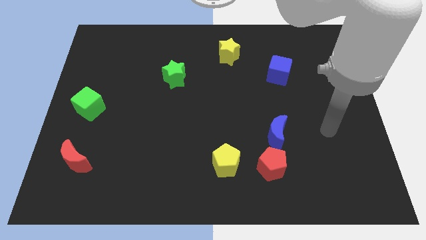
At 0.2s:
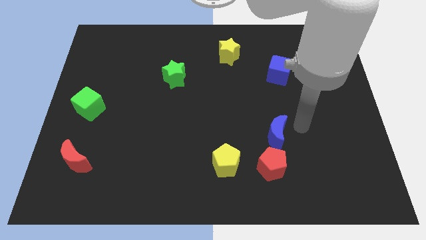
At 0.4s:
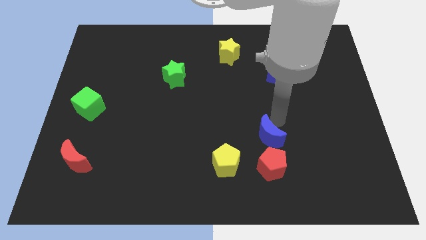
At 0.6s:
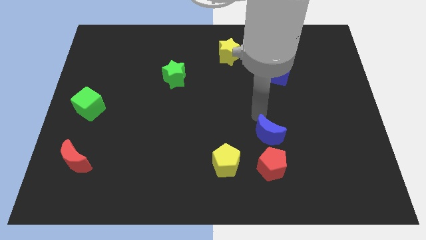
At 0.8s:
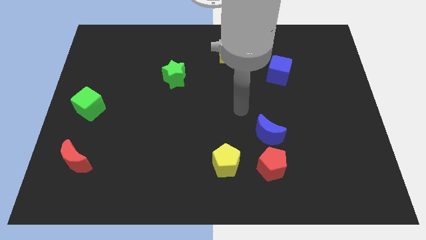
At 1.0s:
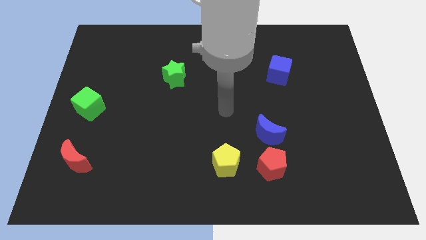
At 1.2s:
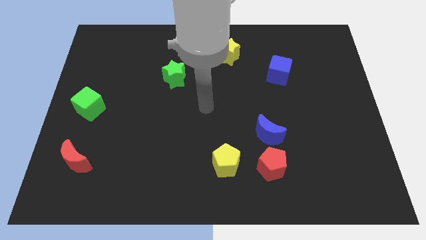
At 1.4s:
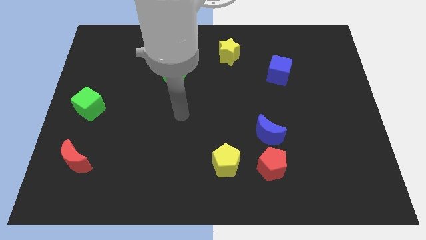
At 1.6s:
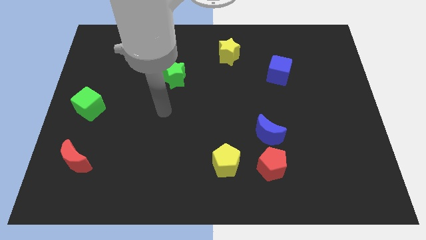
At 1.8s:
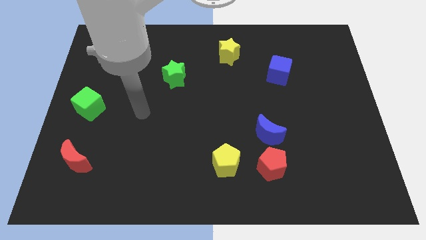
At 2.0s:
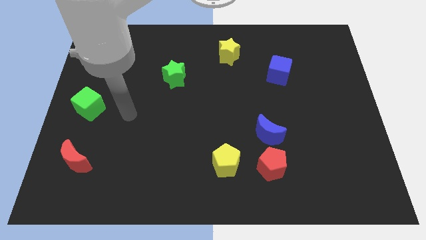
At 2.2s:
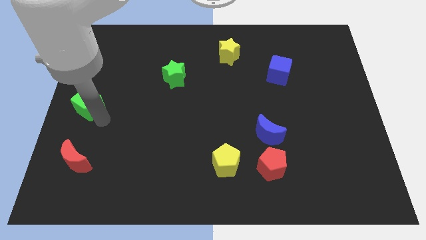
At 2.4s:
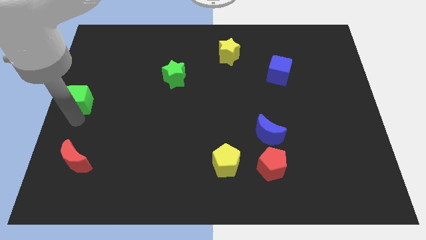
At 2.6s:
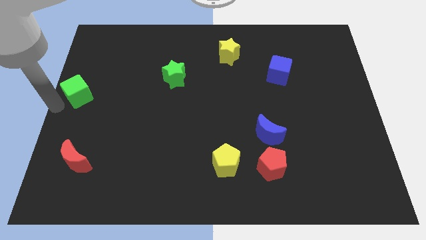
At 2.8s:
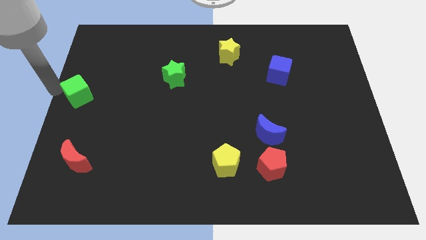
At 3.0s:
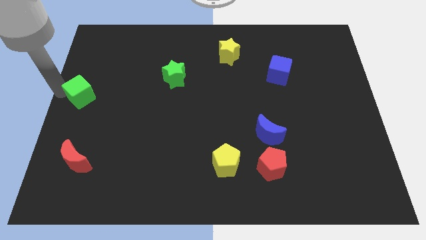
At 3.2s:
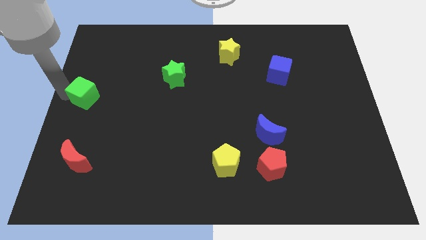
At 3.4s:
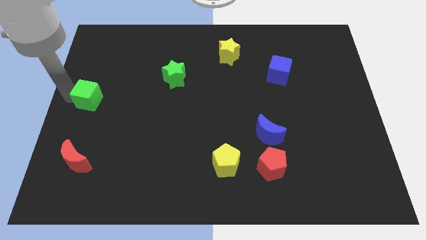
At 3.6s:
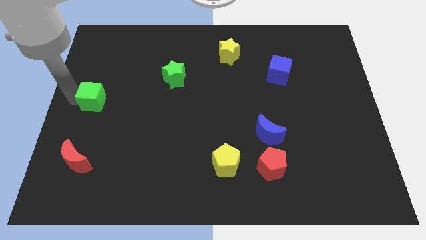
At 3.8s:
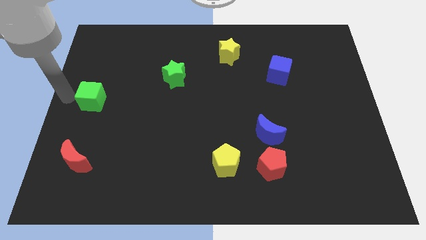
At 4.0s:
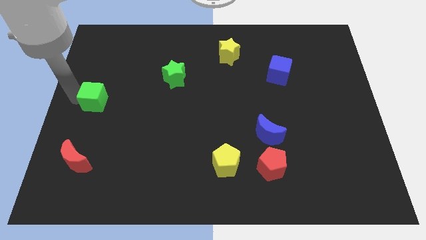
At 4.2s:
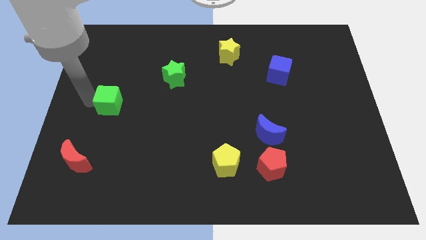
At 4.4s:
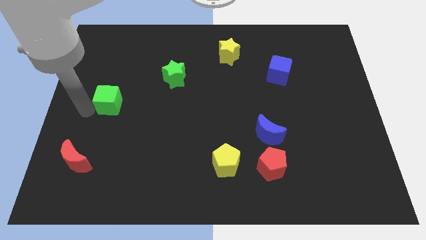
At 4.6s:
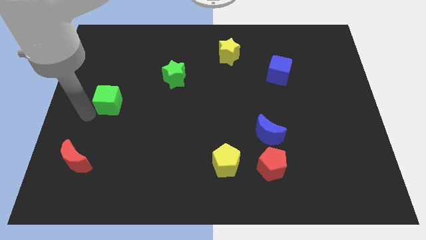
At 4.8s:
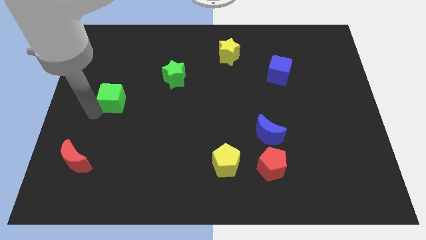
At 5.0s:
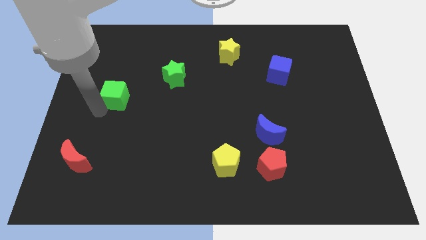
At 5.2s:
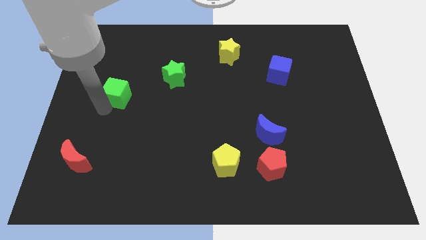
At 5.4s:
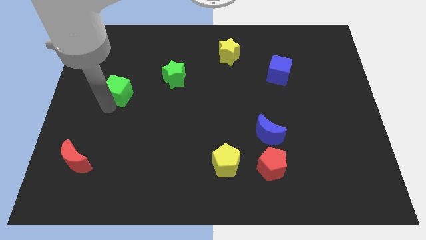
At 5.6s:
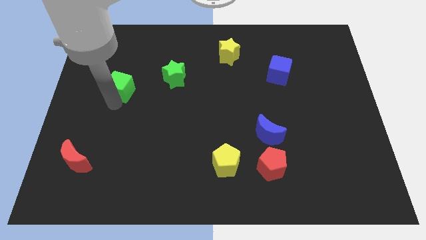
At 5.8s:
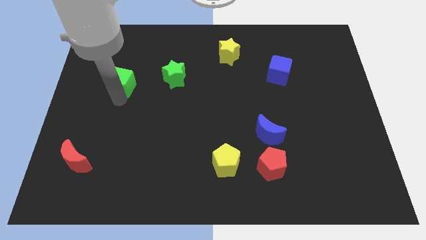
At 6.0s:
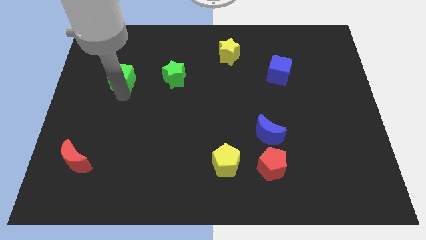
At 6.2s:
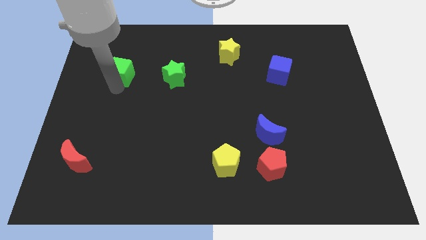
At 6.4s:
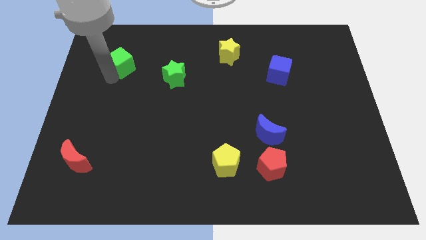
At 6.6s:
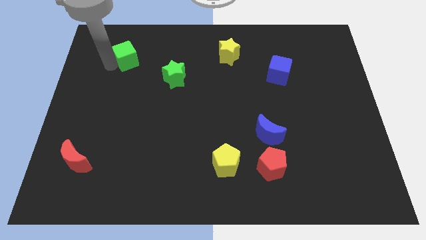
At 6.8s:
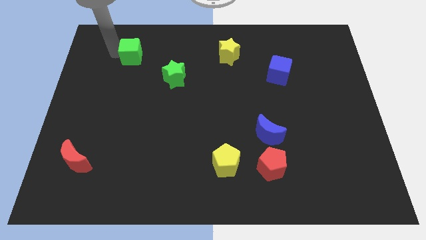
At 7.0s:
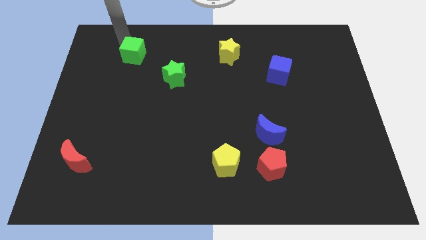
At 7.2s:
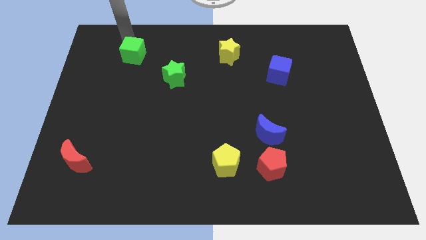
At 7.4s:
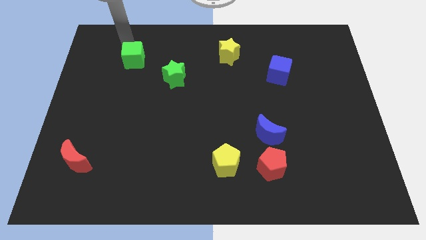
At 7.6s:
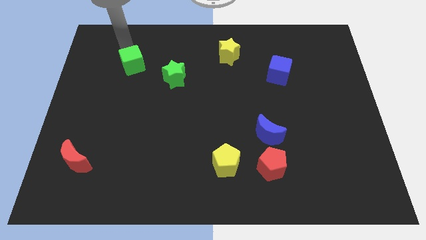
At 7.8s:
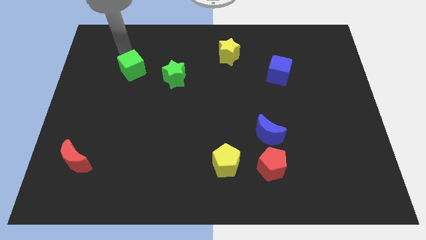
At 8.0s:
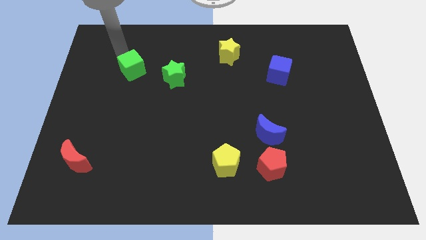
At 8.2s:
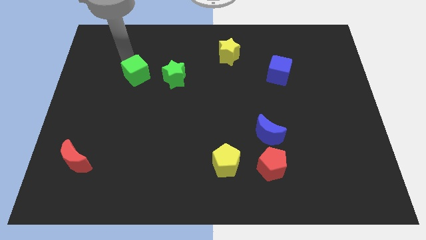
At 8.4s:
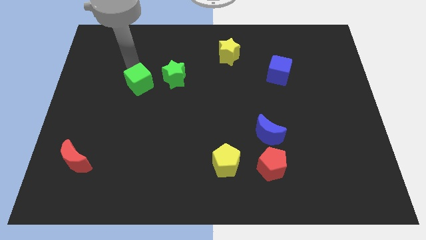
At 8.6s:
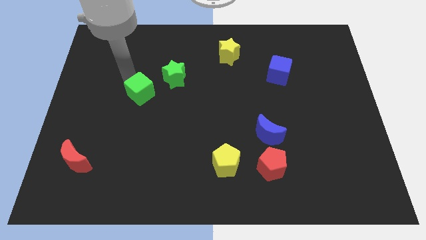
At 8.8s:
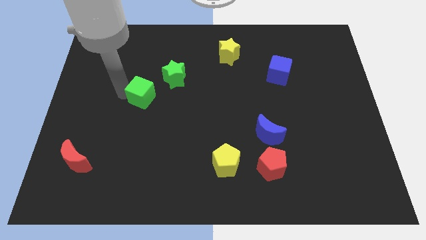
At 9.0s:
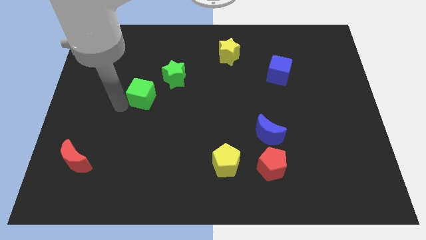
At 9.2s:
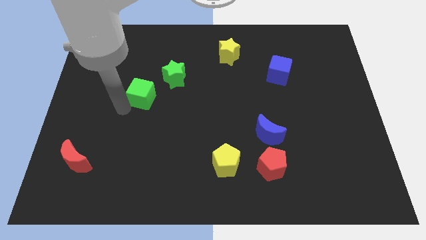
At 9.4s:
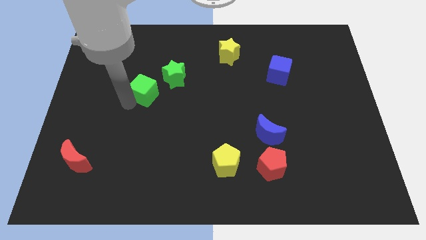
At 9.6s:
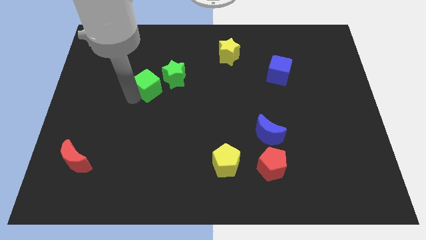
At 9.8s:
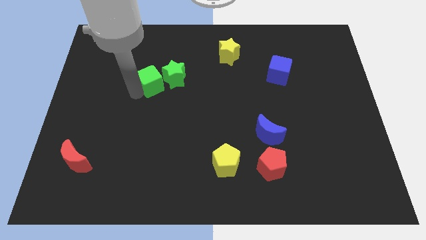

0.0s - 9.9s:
put the green cube to the green star

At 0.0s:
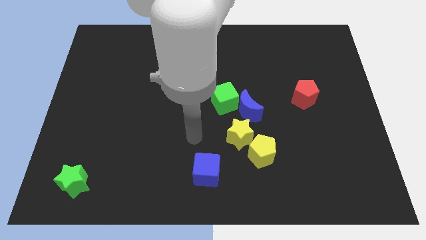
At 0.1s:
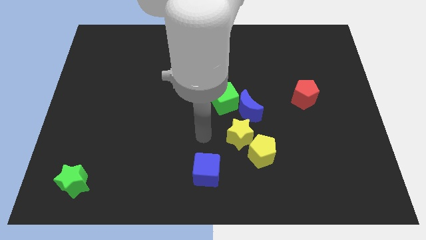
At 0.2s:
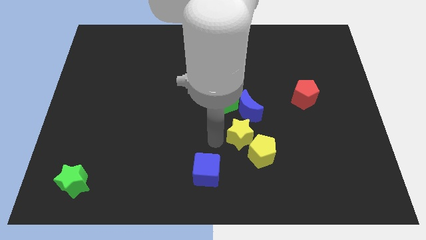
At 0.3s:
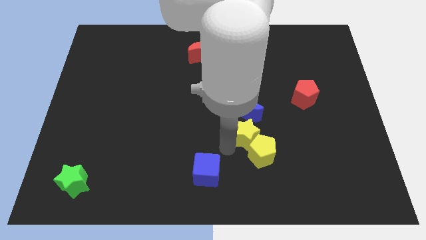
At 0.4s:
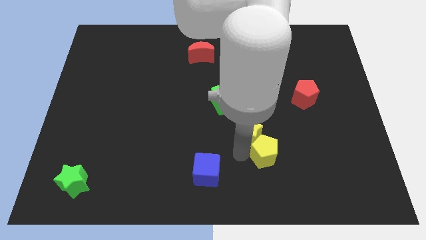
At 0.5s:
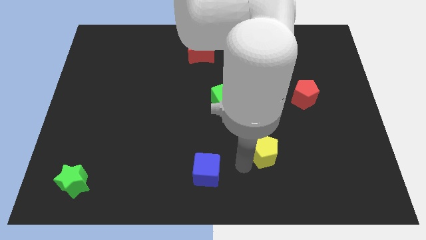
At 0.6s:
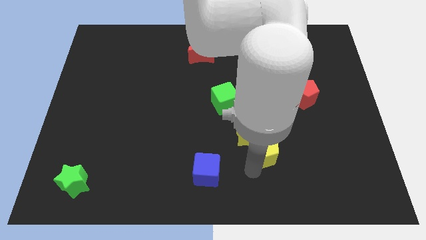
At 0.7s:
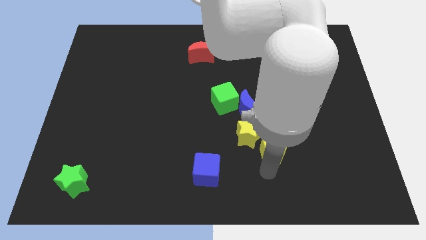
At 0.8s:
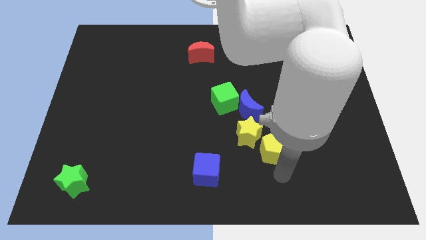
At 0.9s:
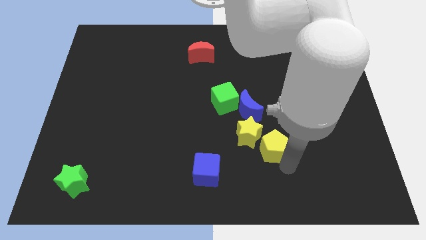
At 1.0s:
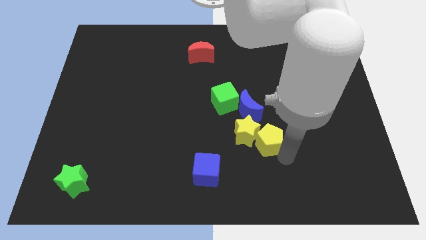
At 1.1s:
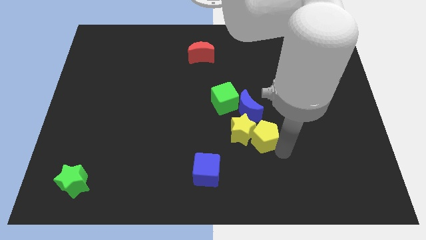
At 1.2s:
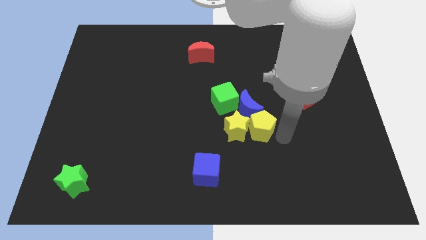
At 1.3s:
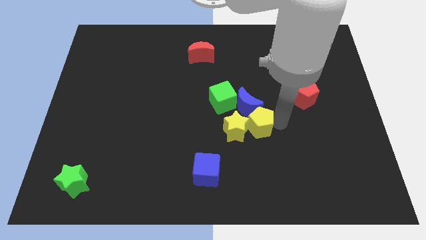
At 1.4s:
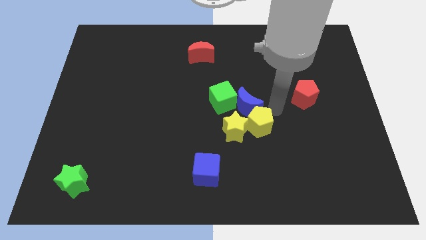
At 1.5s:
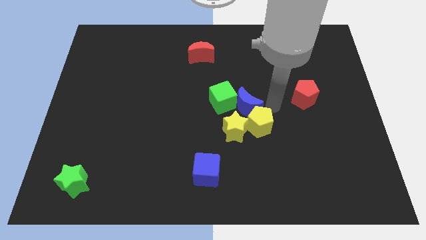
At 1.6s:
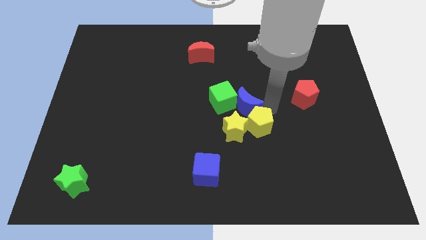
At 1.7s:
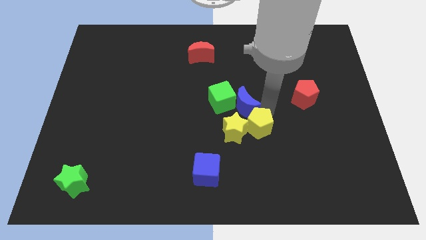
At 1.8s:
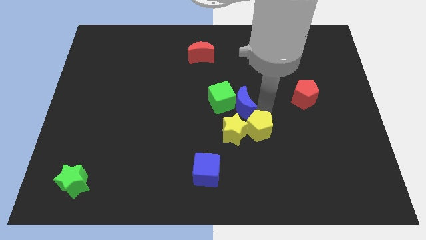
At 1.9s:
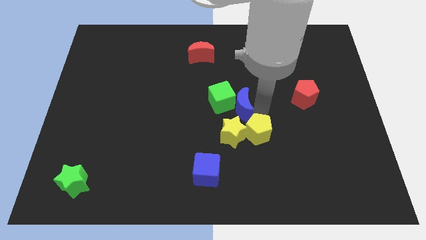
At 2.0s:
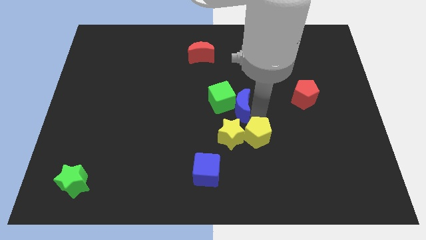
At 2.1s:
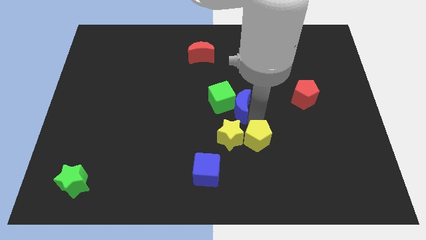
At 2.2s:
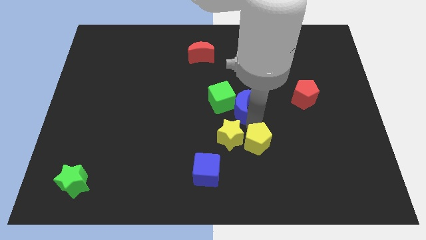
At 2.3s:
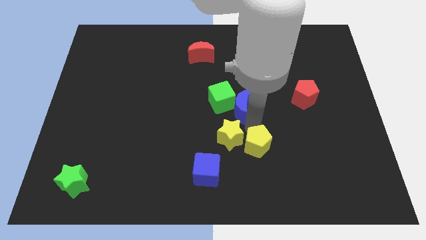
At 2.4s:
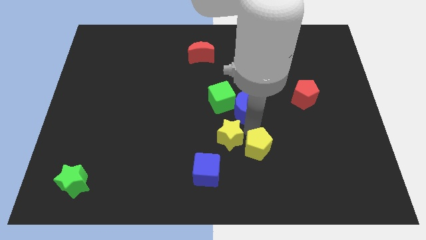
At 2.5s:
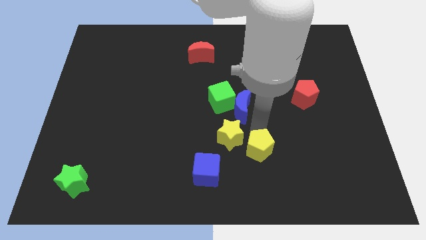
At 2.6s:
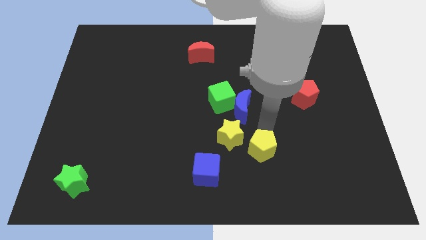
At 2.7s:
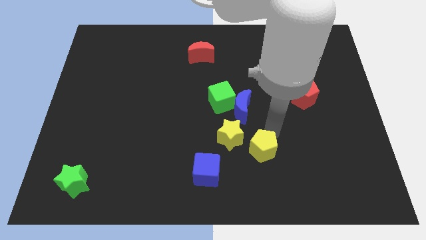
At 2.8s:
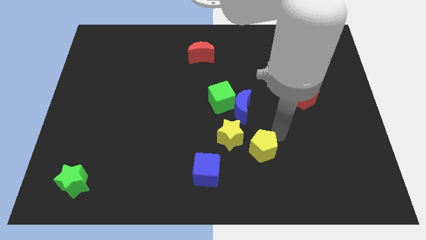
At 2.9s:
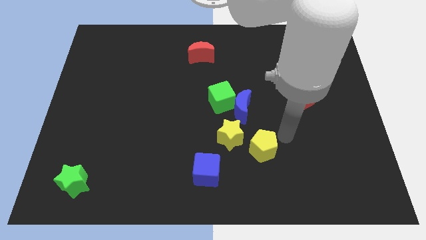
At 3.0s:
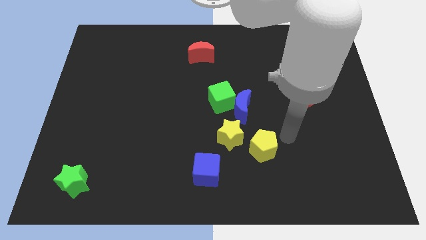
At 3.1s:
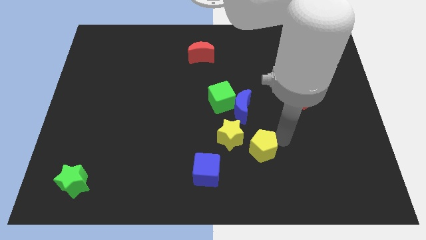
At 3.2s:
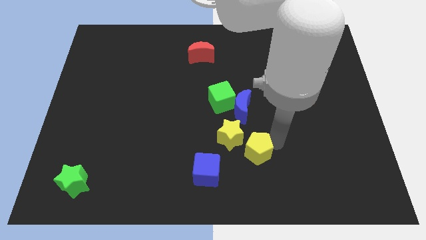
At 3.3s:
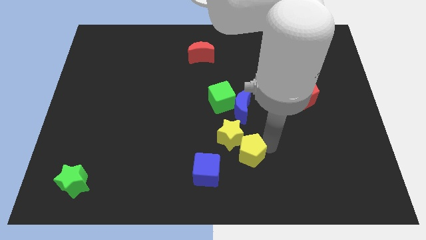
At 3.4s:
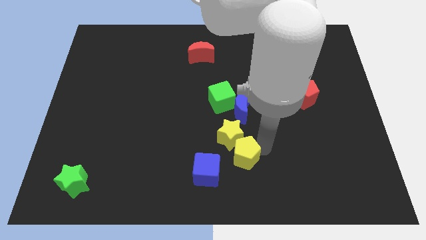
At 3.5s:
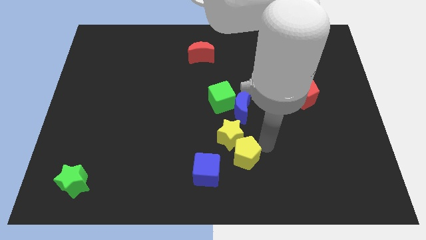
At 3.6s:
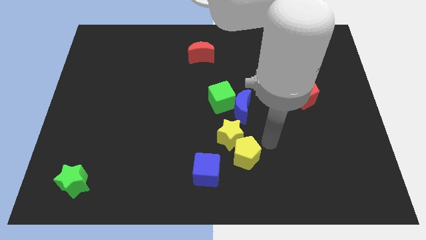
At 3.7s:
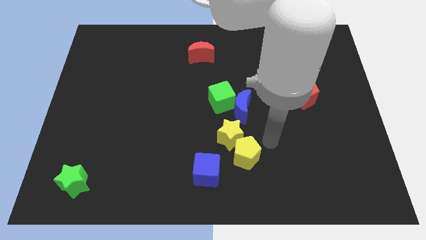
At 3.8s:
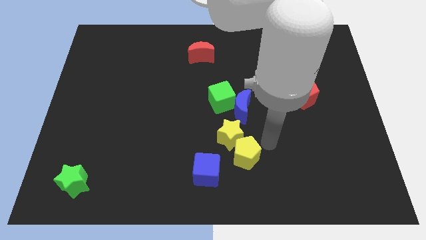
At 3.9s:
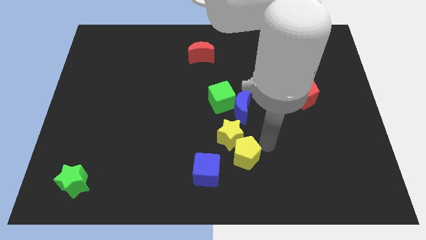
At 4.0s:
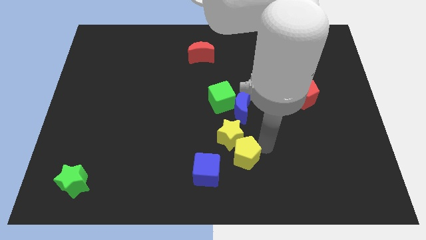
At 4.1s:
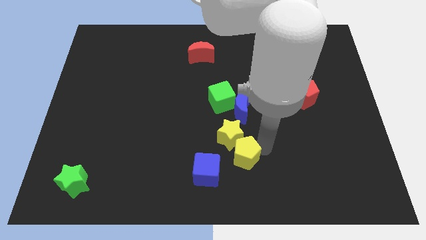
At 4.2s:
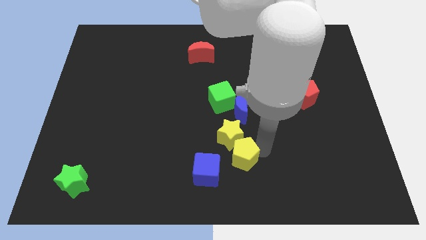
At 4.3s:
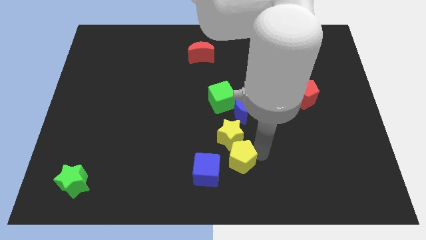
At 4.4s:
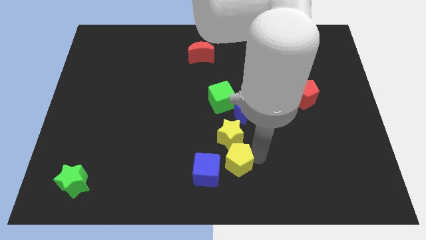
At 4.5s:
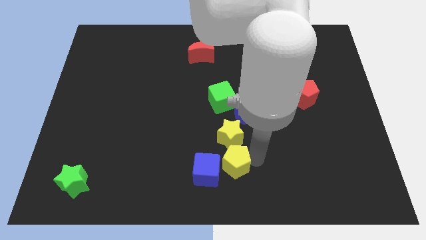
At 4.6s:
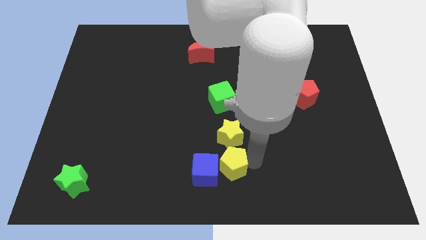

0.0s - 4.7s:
push the yellow pentagon towards the blue cube
